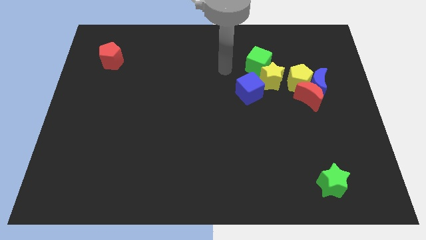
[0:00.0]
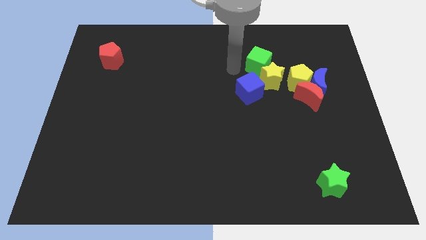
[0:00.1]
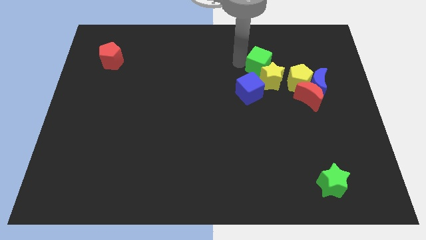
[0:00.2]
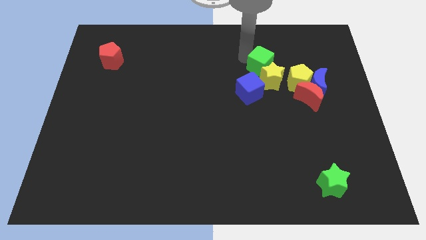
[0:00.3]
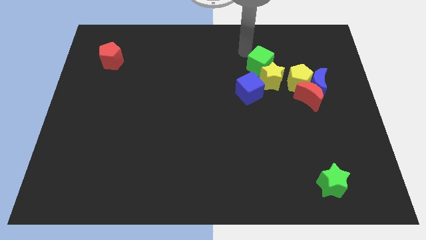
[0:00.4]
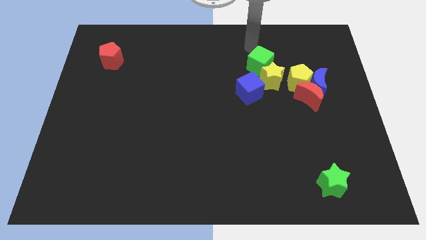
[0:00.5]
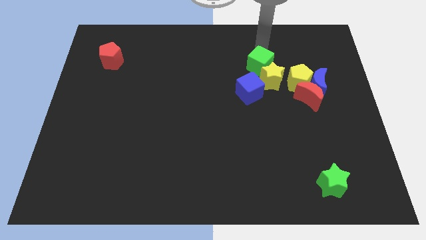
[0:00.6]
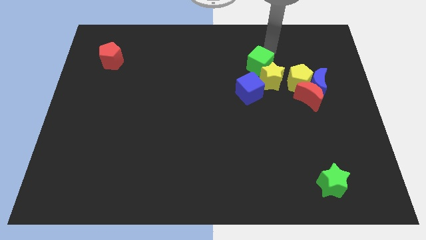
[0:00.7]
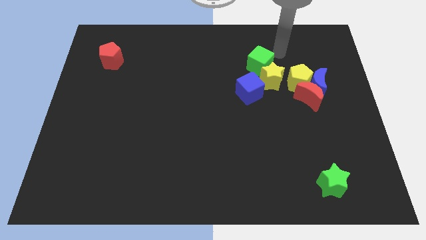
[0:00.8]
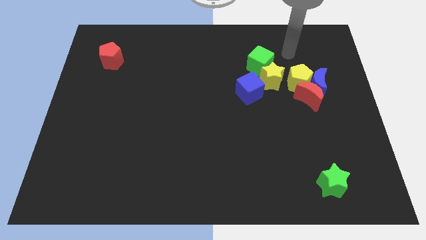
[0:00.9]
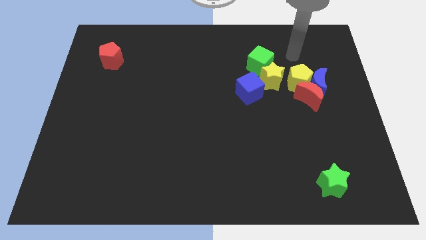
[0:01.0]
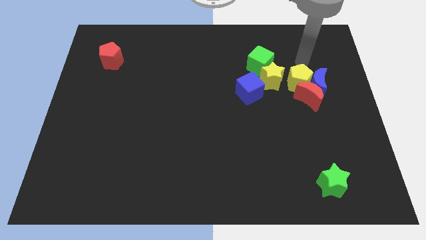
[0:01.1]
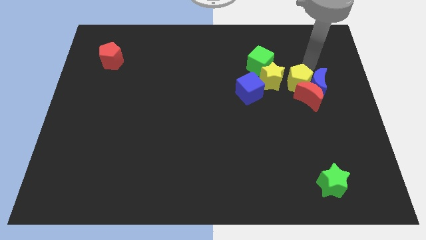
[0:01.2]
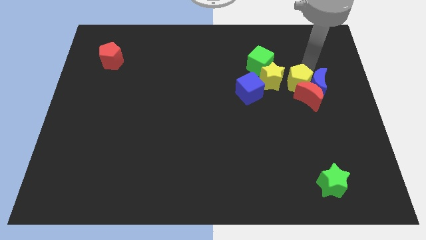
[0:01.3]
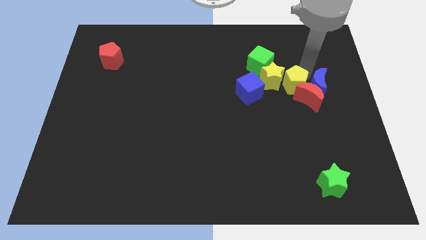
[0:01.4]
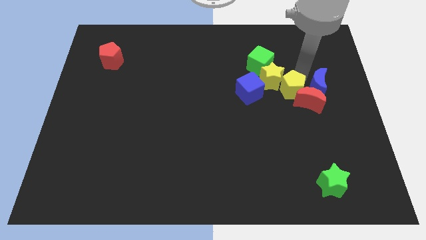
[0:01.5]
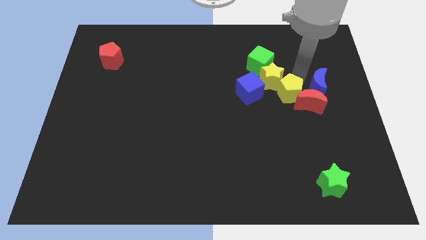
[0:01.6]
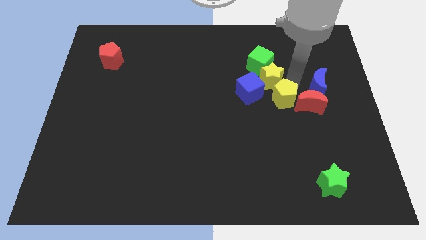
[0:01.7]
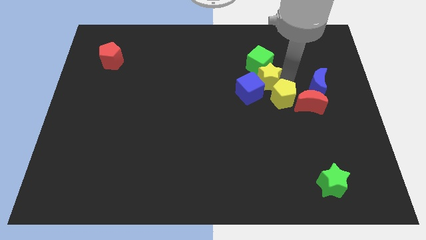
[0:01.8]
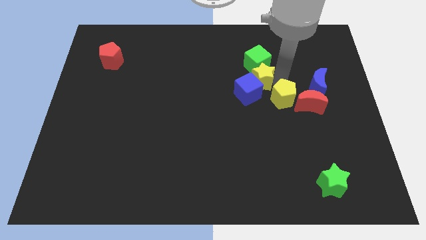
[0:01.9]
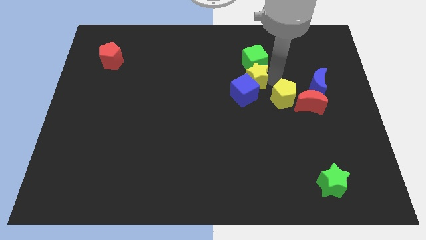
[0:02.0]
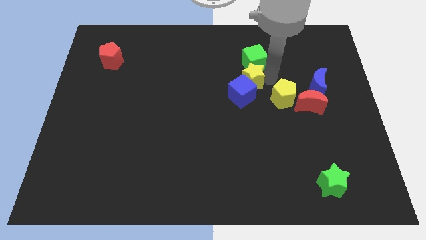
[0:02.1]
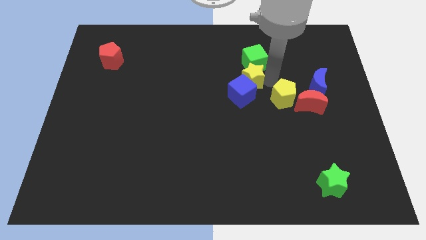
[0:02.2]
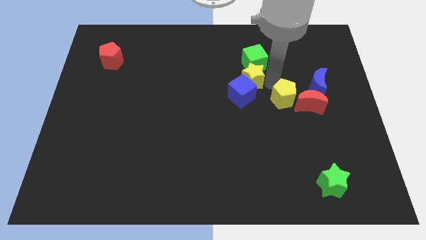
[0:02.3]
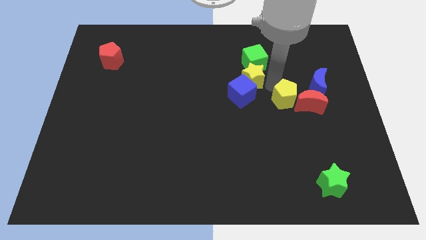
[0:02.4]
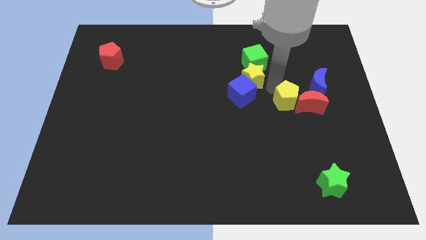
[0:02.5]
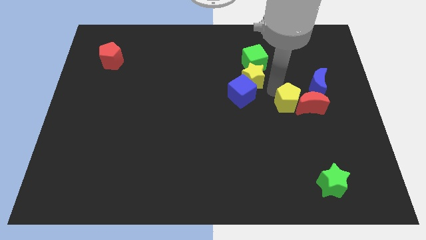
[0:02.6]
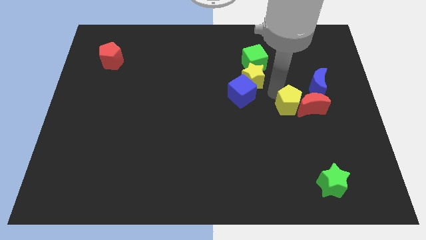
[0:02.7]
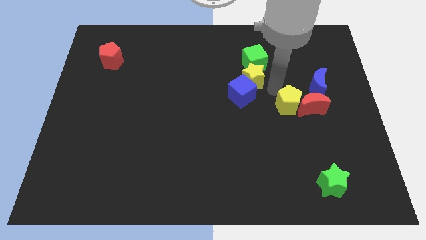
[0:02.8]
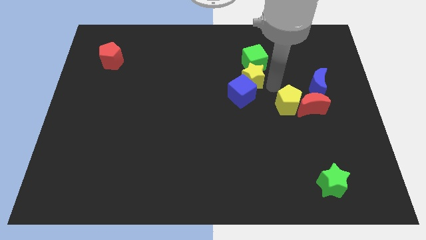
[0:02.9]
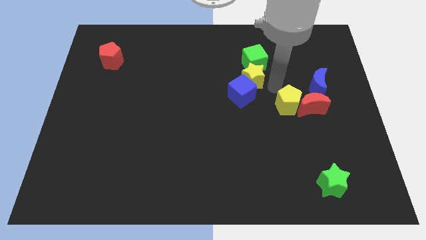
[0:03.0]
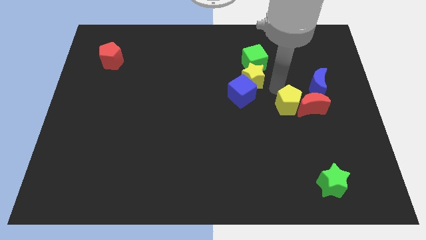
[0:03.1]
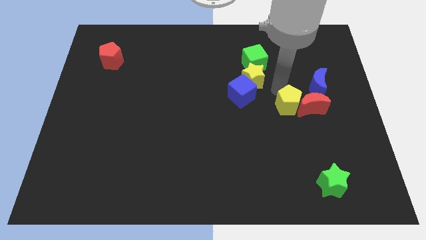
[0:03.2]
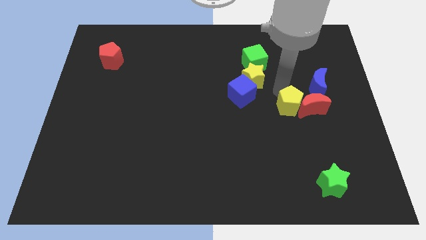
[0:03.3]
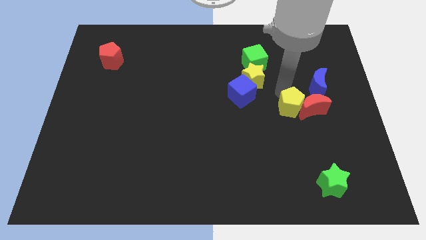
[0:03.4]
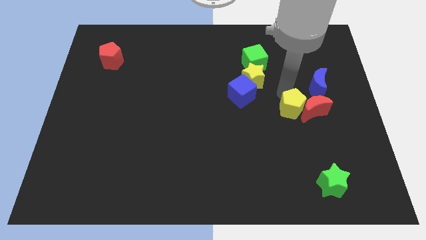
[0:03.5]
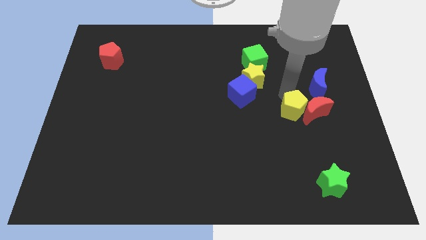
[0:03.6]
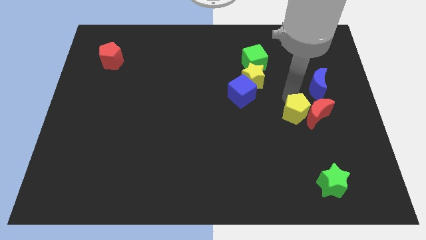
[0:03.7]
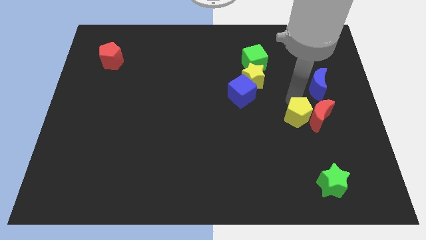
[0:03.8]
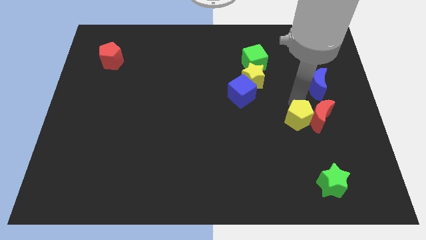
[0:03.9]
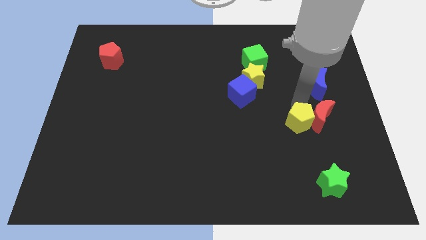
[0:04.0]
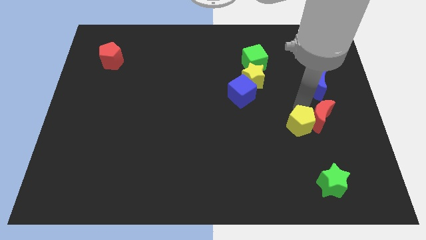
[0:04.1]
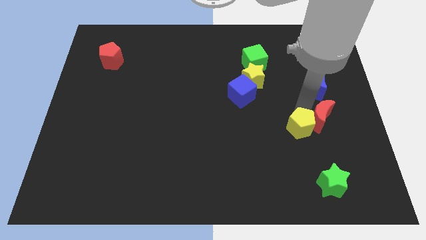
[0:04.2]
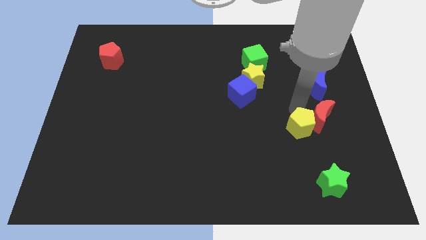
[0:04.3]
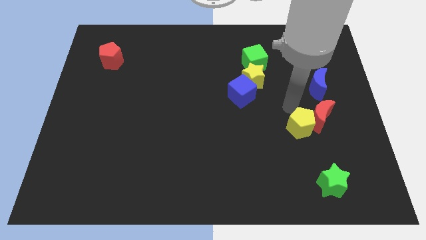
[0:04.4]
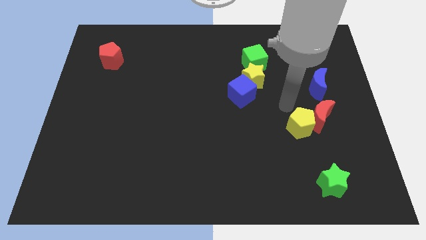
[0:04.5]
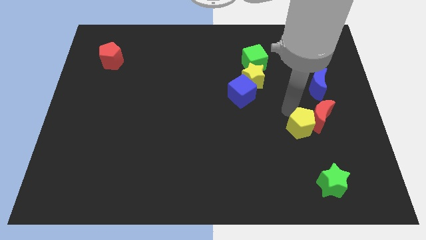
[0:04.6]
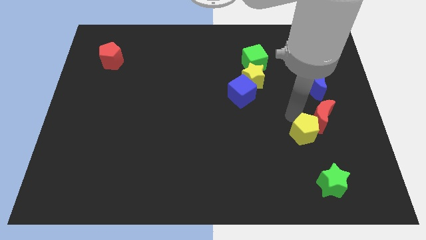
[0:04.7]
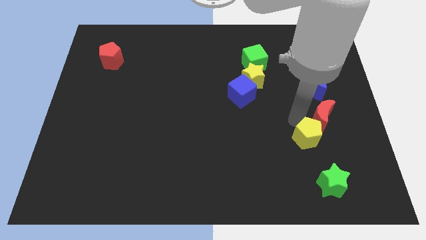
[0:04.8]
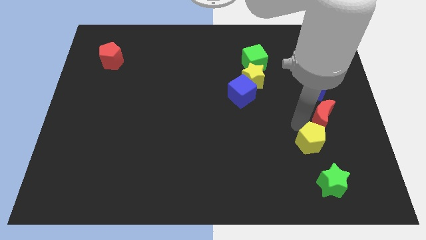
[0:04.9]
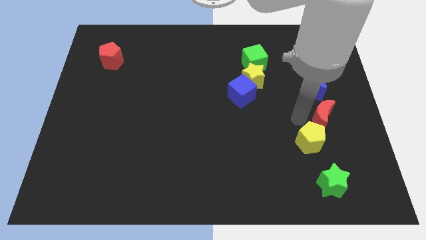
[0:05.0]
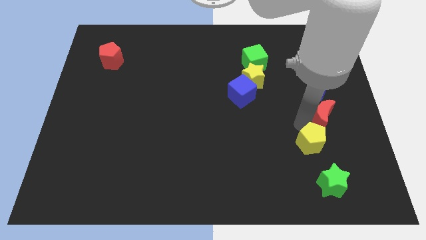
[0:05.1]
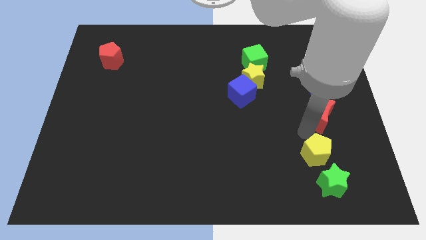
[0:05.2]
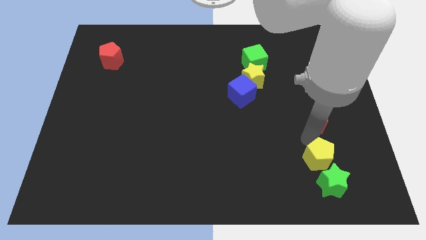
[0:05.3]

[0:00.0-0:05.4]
put the yellow pentagon next to the green star

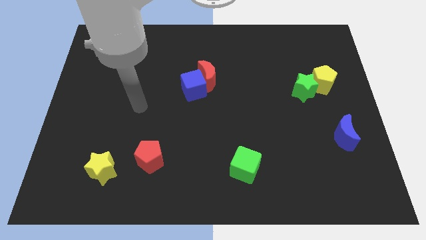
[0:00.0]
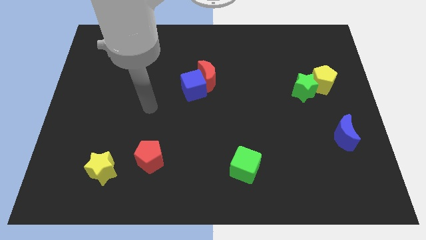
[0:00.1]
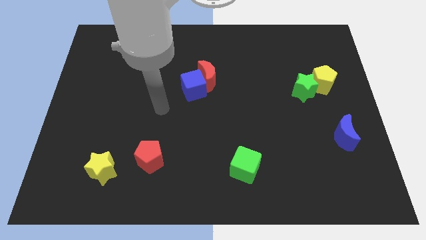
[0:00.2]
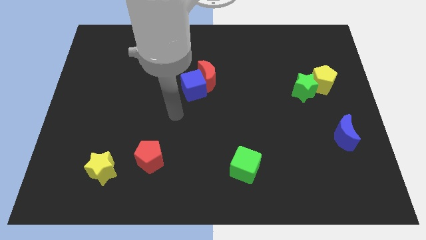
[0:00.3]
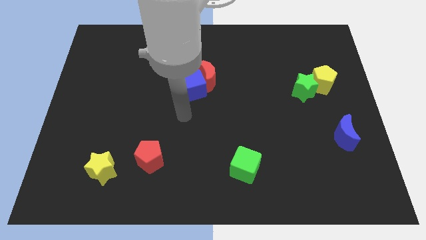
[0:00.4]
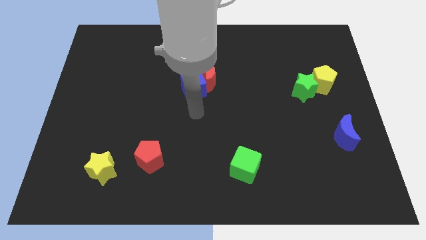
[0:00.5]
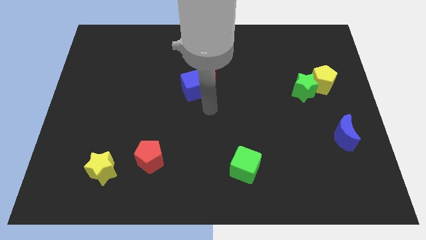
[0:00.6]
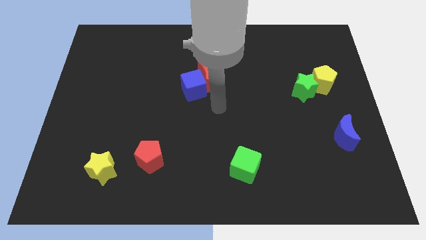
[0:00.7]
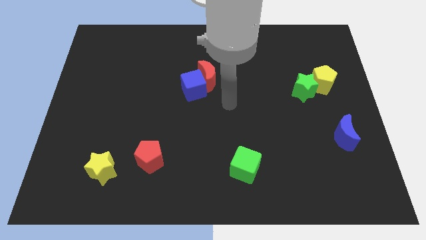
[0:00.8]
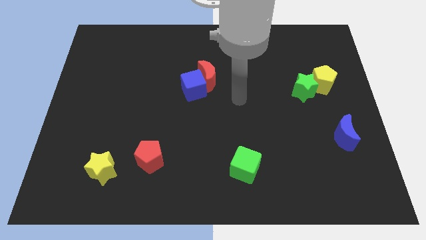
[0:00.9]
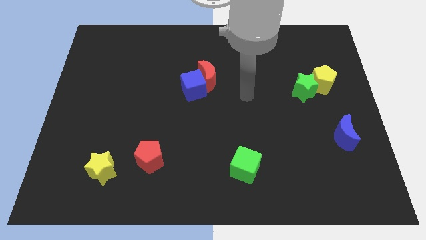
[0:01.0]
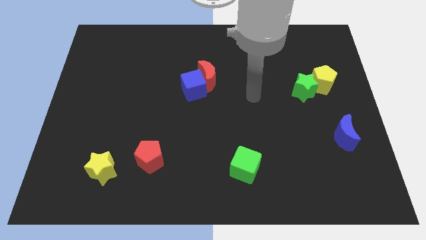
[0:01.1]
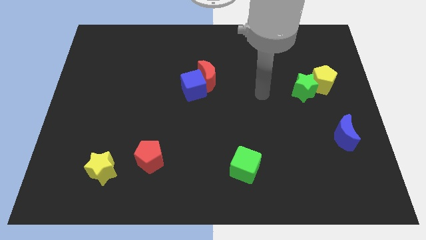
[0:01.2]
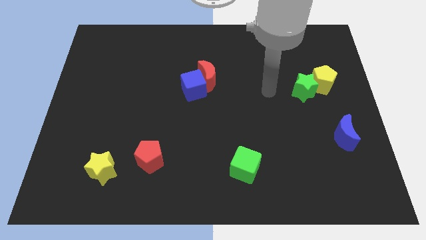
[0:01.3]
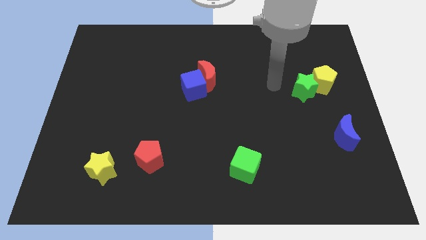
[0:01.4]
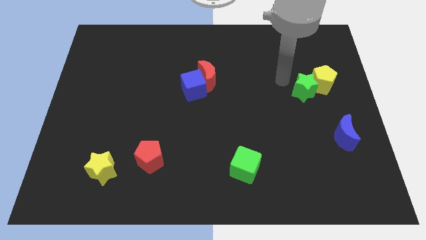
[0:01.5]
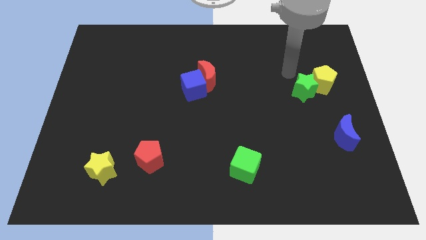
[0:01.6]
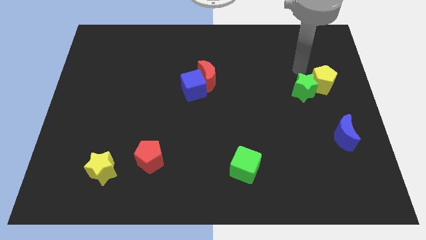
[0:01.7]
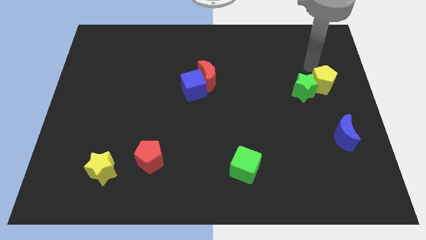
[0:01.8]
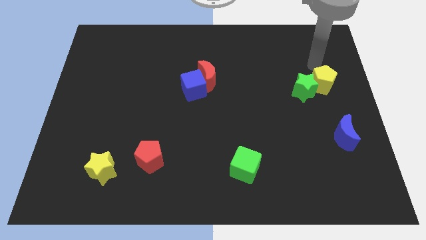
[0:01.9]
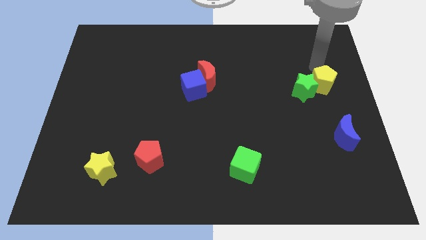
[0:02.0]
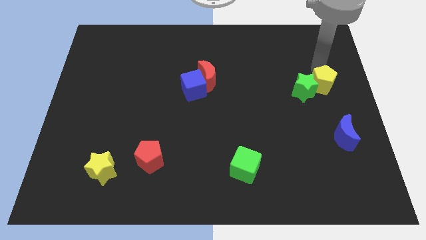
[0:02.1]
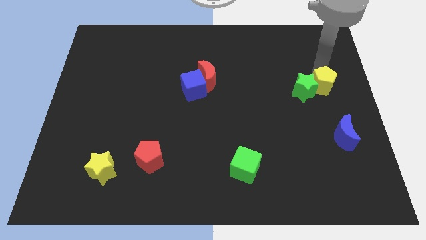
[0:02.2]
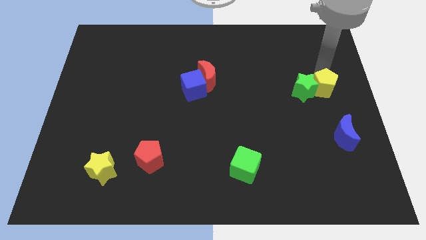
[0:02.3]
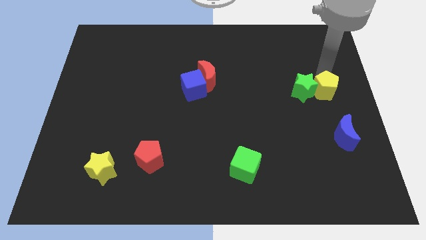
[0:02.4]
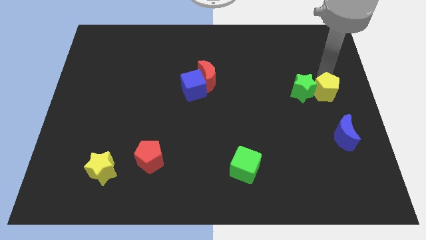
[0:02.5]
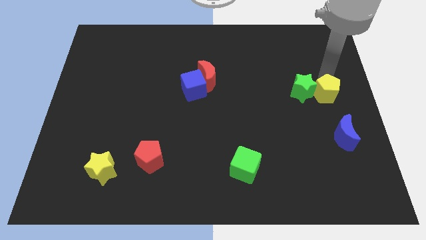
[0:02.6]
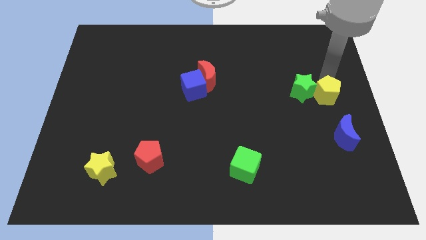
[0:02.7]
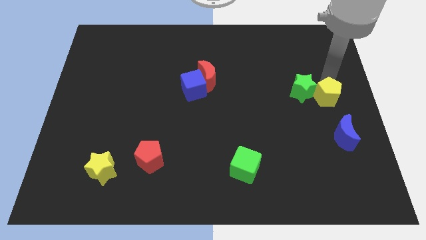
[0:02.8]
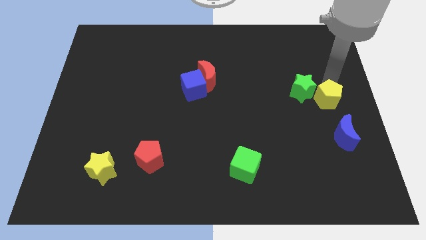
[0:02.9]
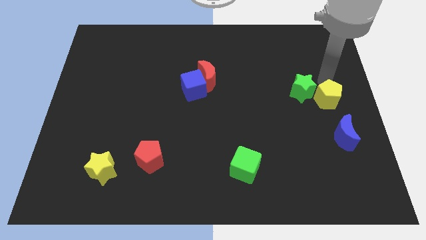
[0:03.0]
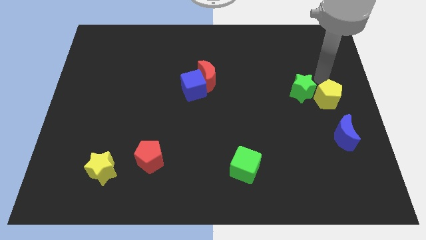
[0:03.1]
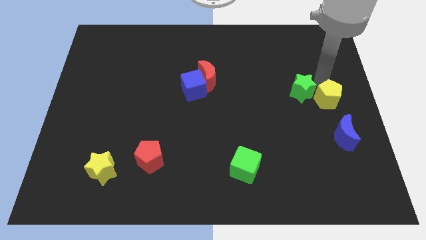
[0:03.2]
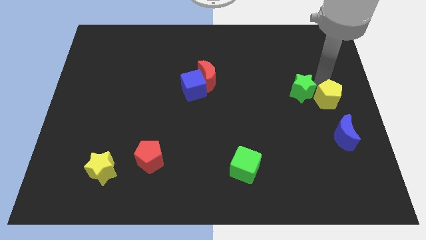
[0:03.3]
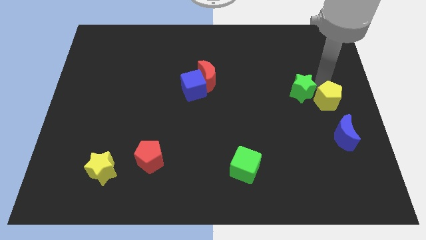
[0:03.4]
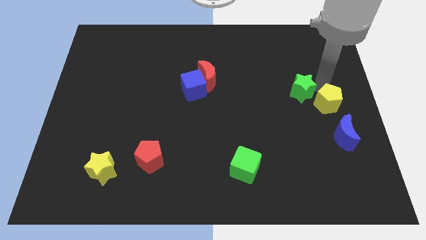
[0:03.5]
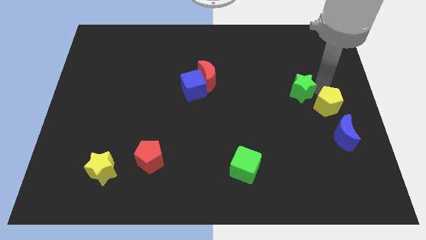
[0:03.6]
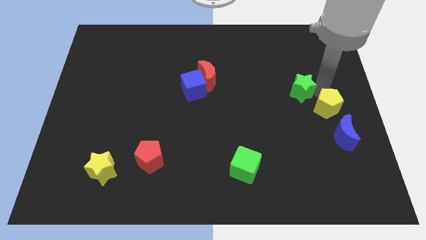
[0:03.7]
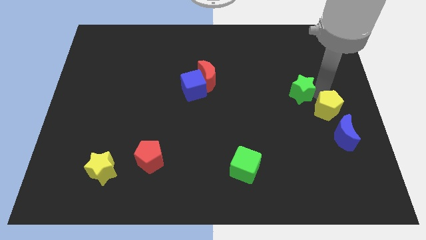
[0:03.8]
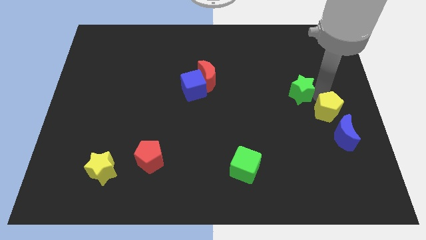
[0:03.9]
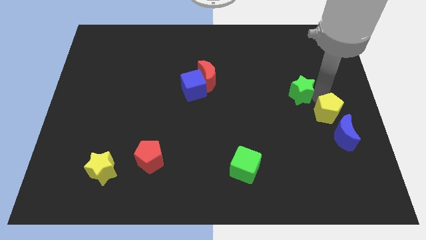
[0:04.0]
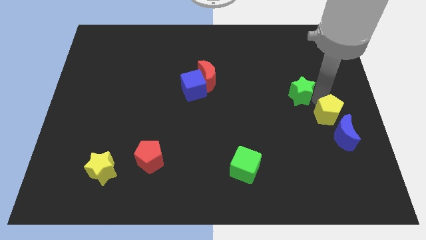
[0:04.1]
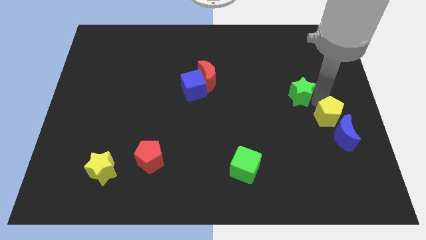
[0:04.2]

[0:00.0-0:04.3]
move the yellow pentagon close to the blue moon
